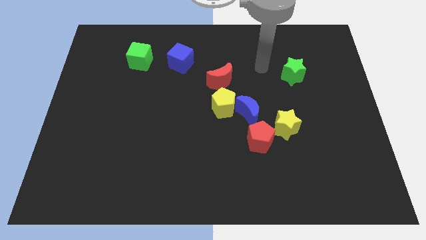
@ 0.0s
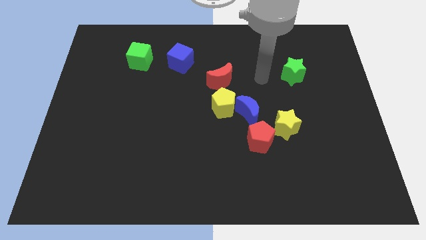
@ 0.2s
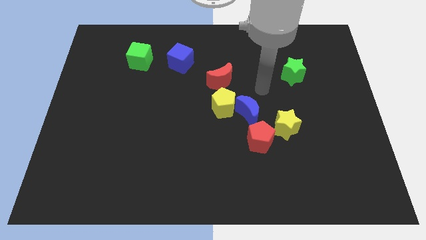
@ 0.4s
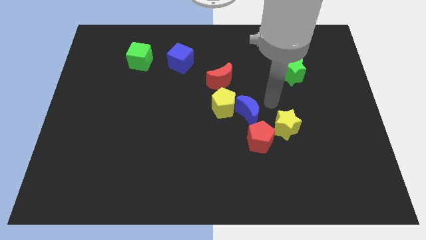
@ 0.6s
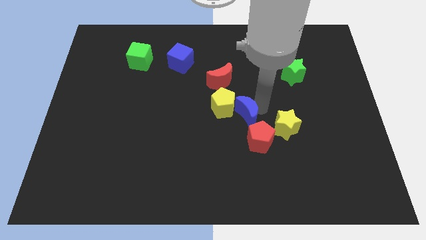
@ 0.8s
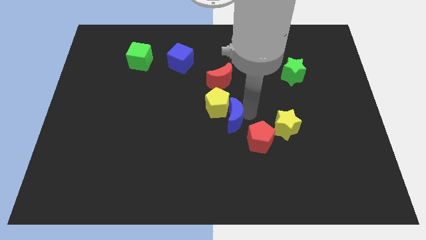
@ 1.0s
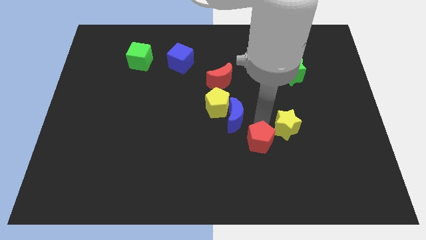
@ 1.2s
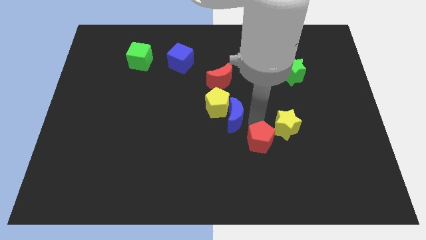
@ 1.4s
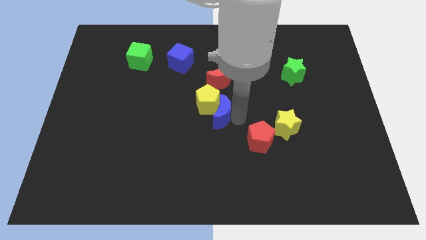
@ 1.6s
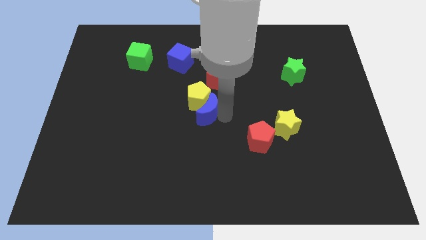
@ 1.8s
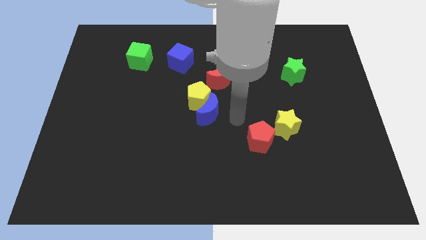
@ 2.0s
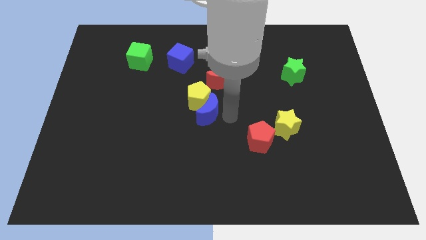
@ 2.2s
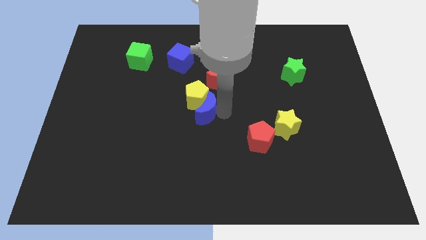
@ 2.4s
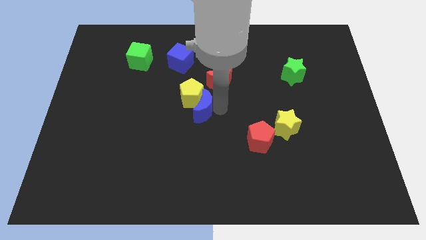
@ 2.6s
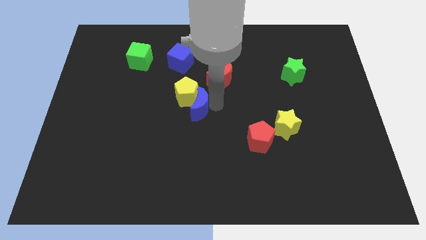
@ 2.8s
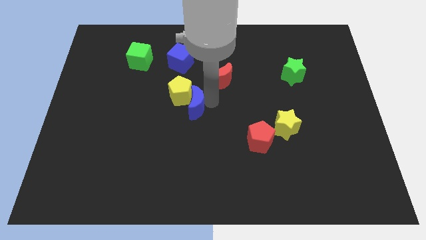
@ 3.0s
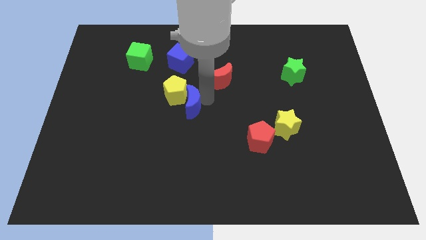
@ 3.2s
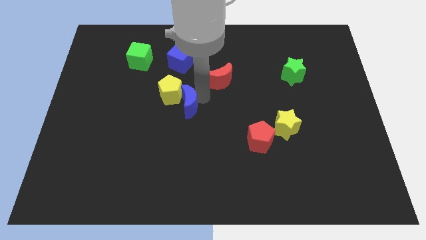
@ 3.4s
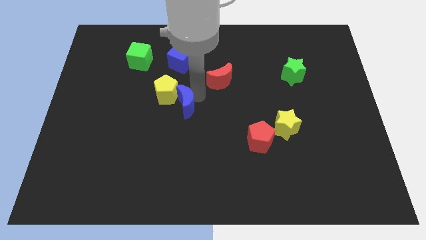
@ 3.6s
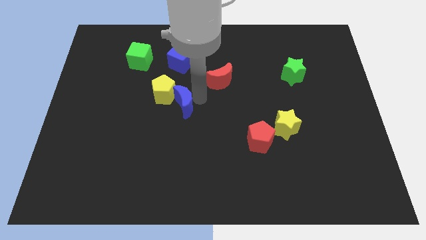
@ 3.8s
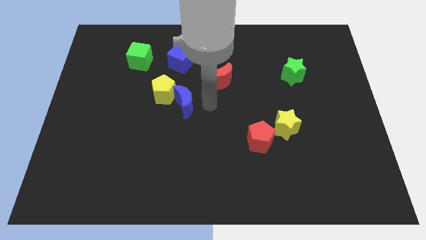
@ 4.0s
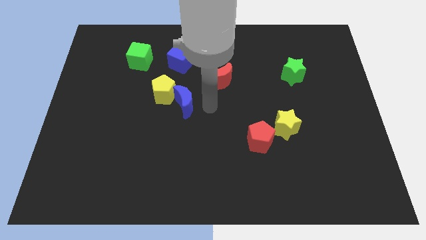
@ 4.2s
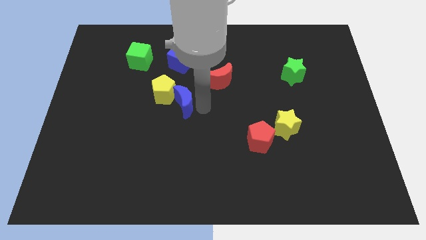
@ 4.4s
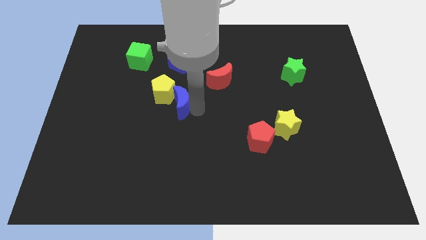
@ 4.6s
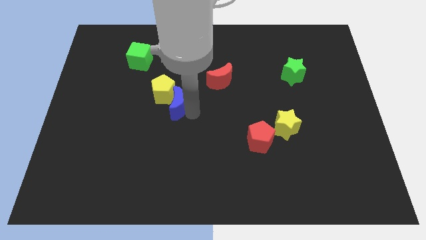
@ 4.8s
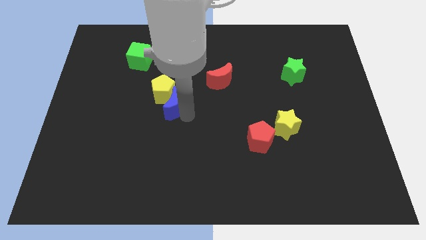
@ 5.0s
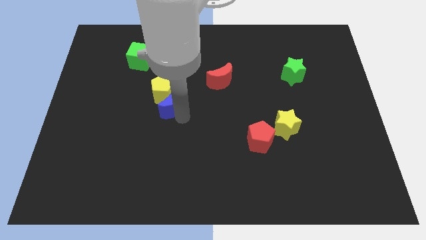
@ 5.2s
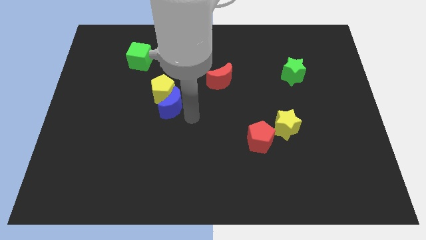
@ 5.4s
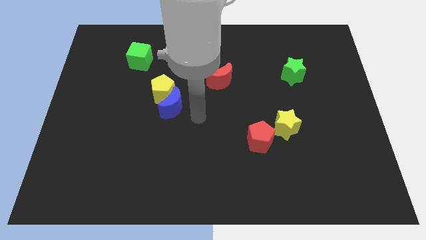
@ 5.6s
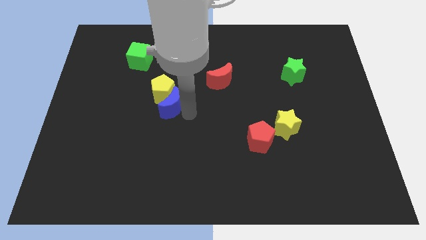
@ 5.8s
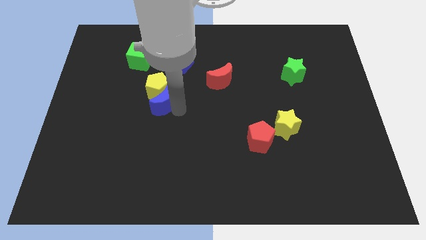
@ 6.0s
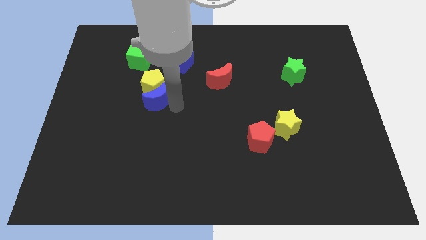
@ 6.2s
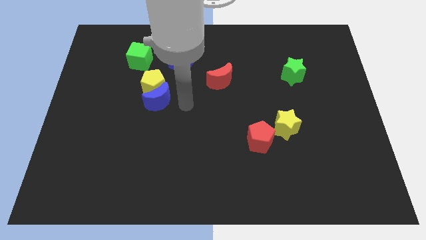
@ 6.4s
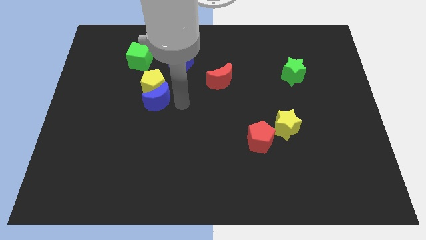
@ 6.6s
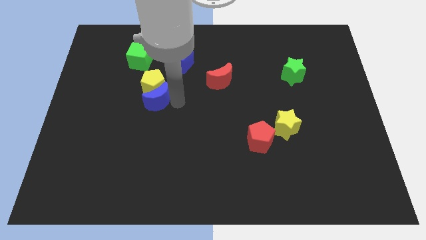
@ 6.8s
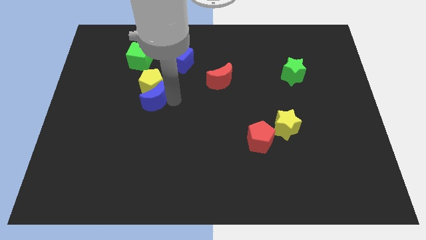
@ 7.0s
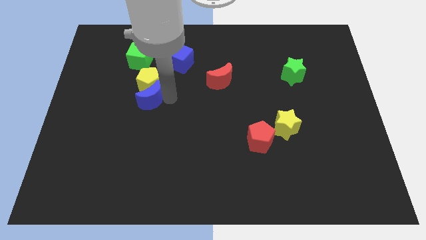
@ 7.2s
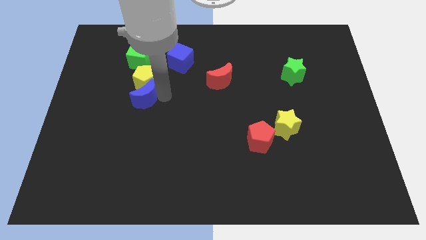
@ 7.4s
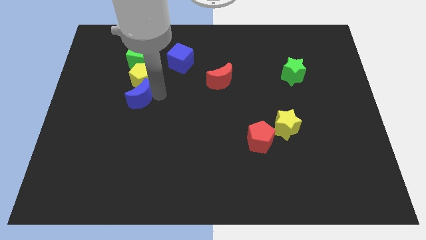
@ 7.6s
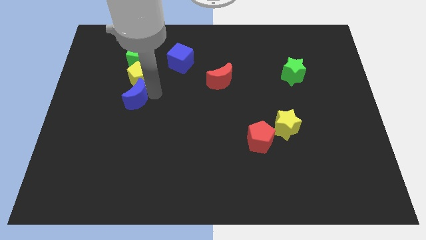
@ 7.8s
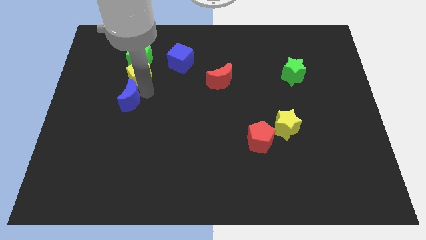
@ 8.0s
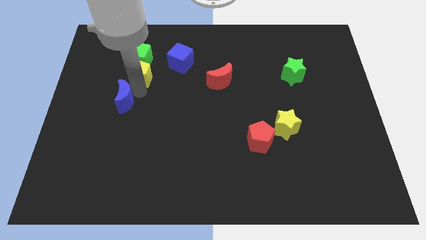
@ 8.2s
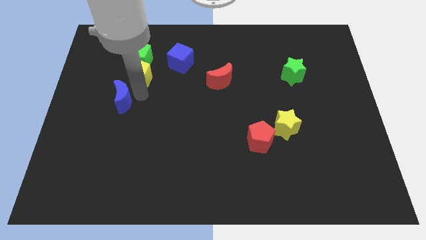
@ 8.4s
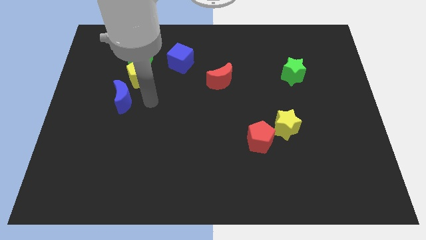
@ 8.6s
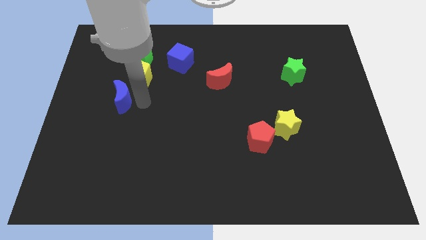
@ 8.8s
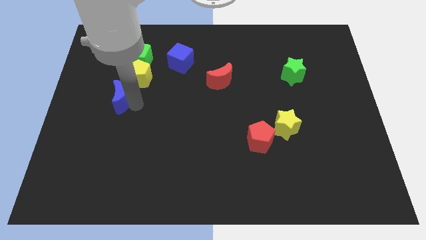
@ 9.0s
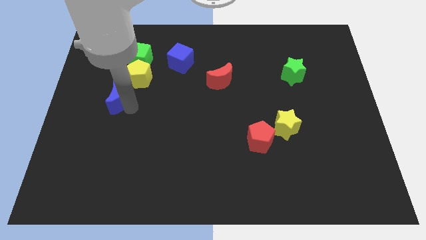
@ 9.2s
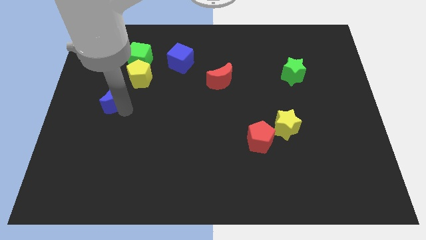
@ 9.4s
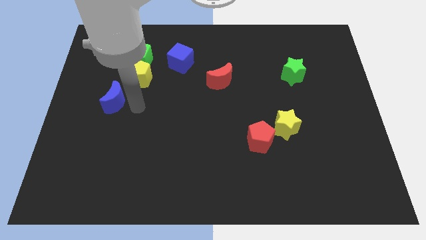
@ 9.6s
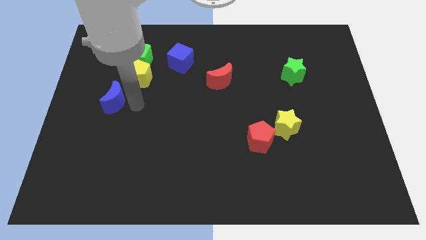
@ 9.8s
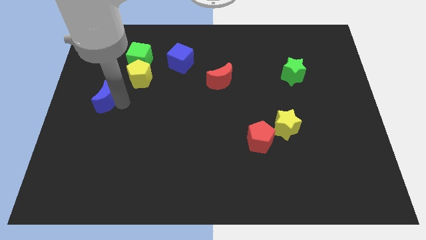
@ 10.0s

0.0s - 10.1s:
slide the blue moon to the left side

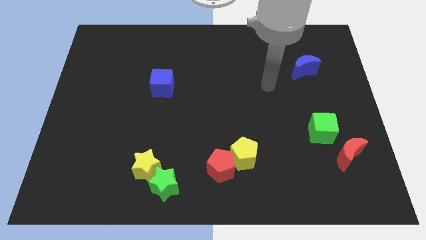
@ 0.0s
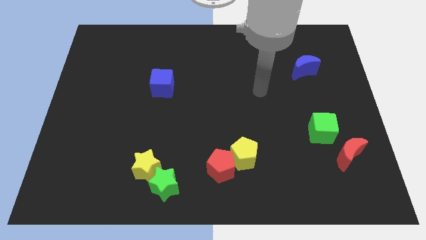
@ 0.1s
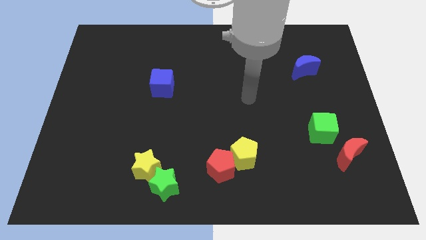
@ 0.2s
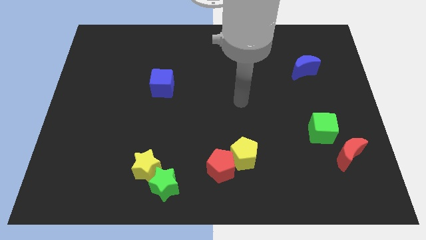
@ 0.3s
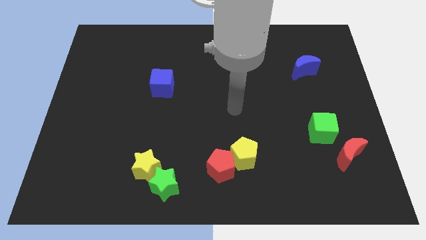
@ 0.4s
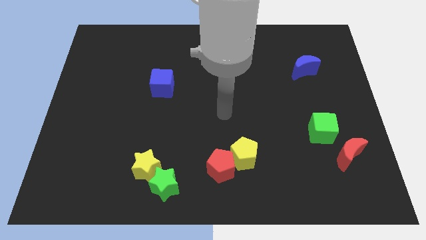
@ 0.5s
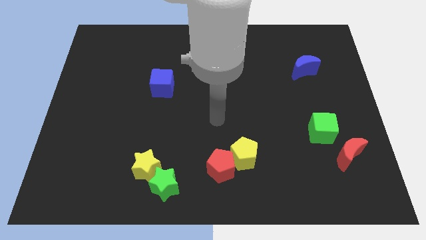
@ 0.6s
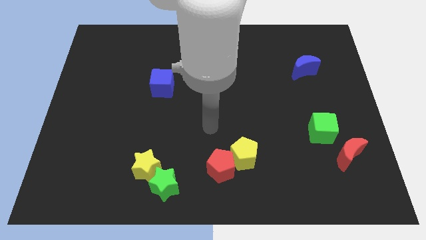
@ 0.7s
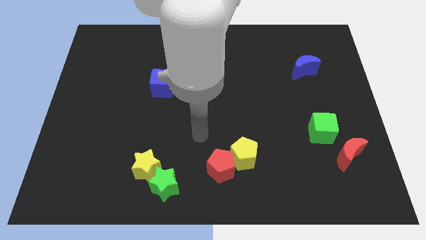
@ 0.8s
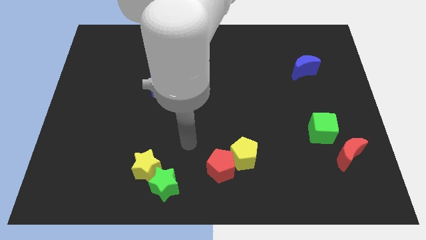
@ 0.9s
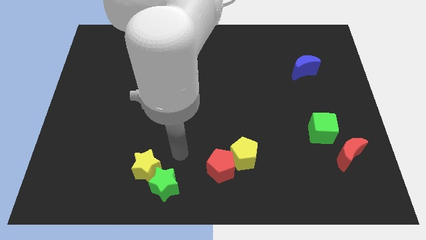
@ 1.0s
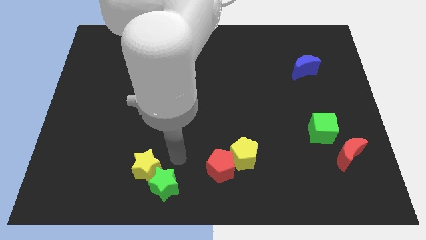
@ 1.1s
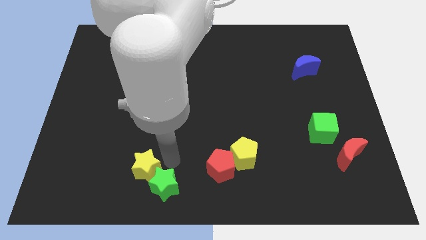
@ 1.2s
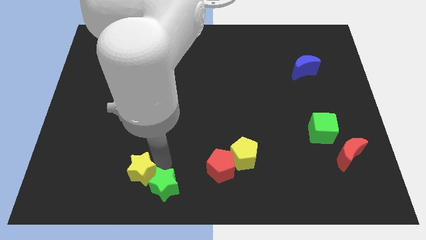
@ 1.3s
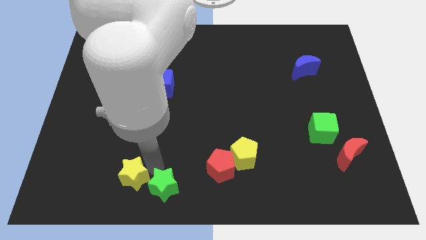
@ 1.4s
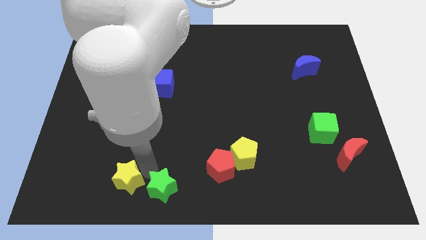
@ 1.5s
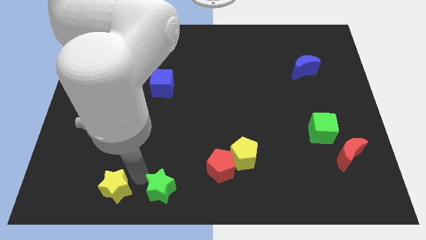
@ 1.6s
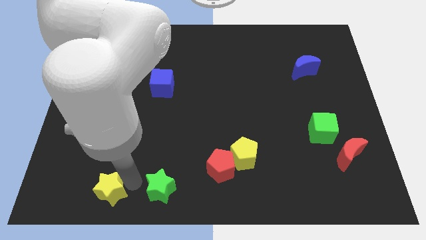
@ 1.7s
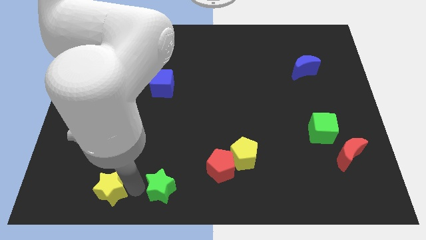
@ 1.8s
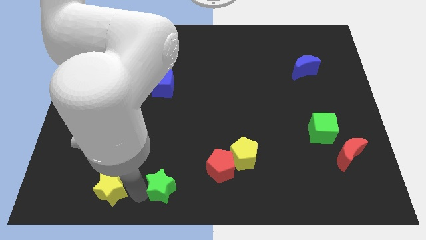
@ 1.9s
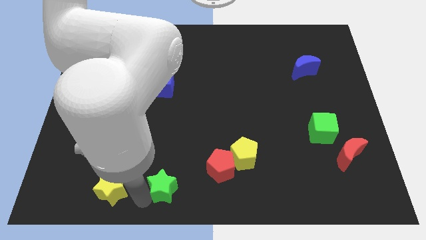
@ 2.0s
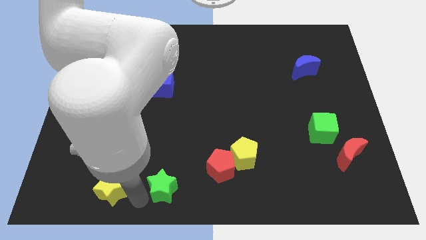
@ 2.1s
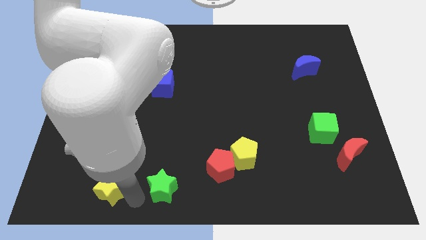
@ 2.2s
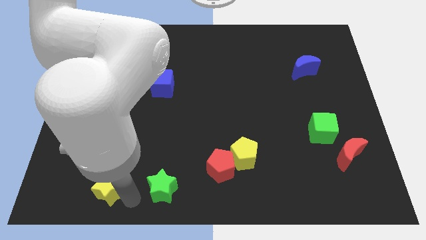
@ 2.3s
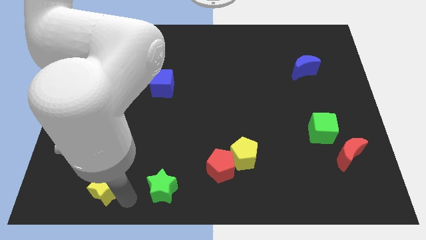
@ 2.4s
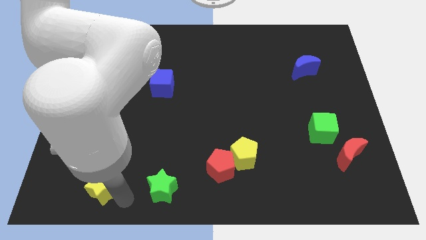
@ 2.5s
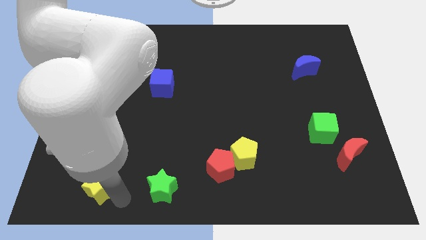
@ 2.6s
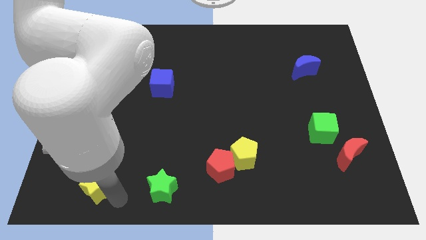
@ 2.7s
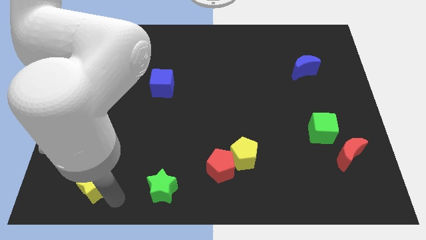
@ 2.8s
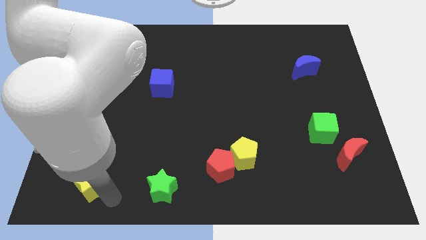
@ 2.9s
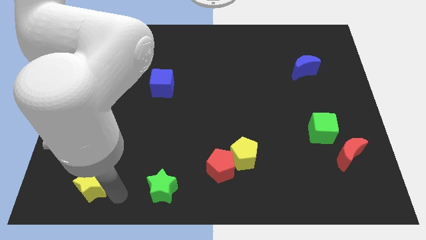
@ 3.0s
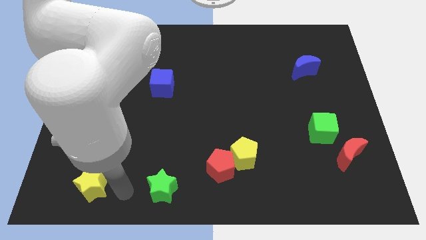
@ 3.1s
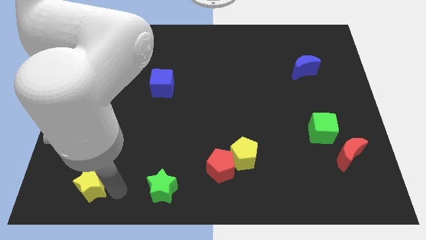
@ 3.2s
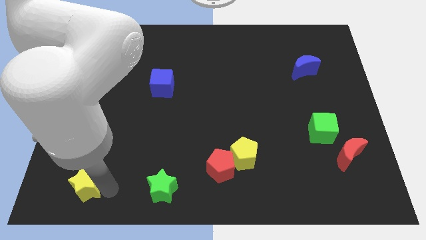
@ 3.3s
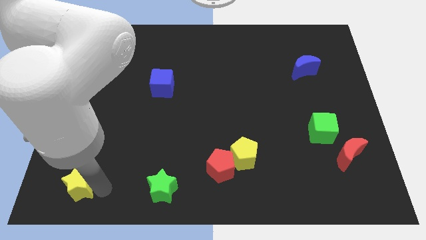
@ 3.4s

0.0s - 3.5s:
move the yellow star to the bottom left
